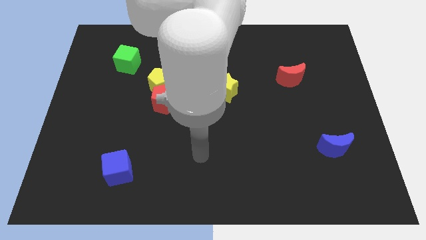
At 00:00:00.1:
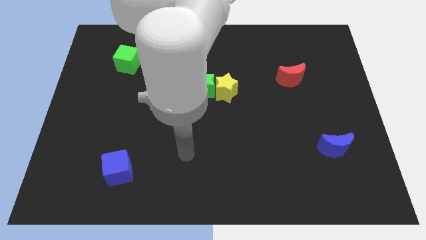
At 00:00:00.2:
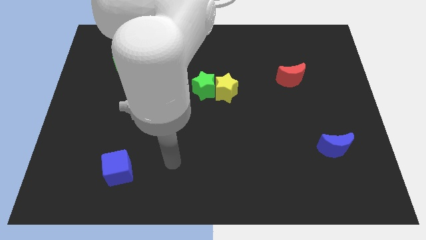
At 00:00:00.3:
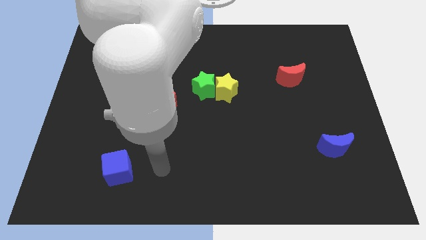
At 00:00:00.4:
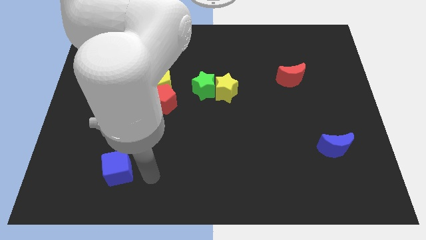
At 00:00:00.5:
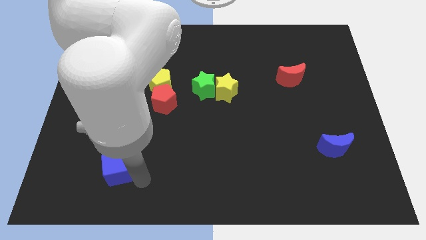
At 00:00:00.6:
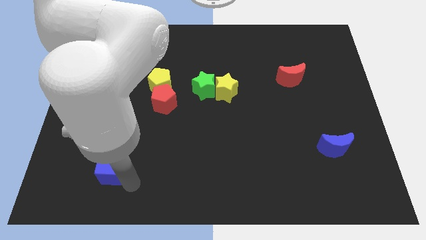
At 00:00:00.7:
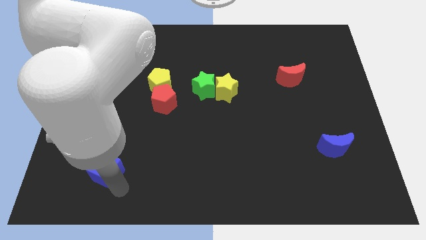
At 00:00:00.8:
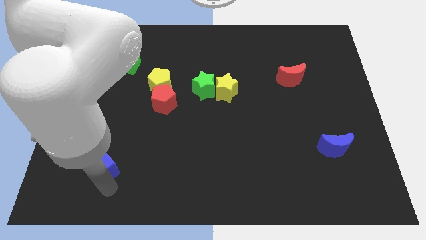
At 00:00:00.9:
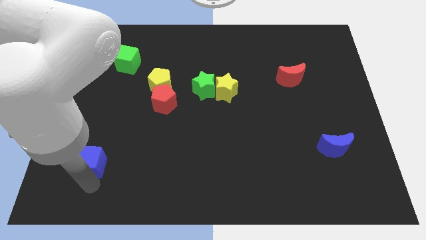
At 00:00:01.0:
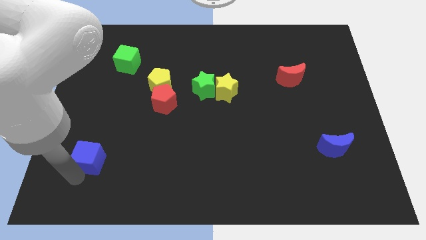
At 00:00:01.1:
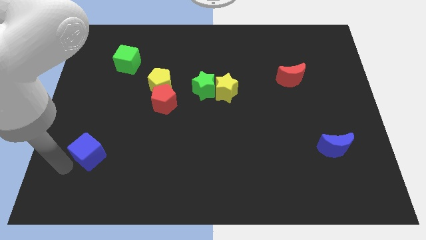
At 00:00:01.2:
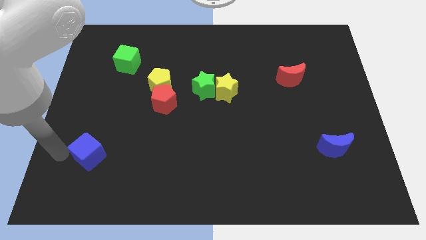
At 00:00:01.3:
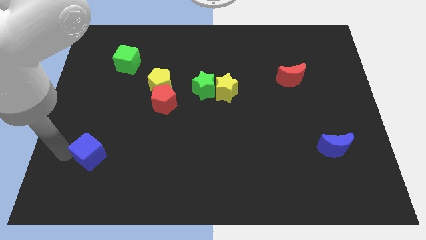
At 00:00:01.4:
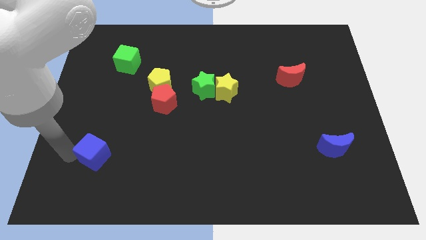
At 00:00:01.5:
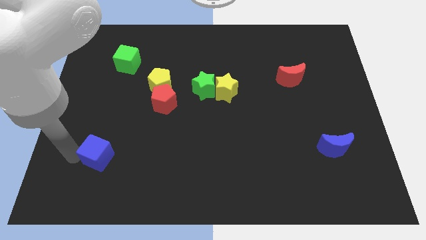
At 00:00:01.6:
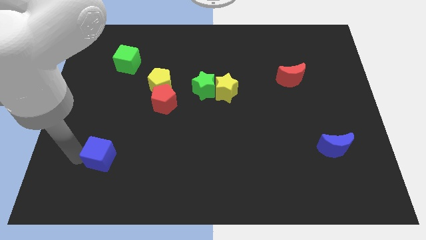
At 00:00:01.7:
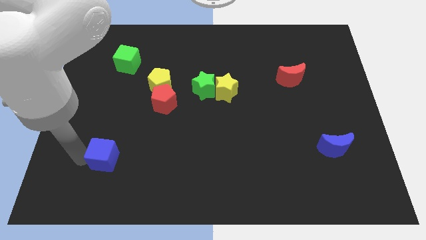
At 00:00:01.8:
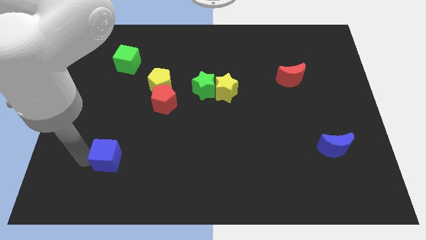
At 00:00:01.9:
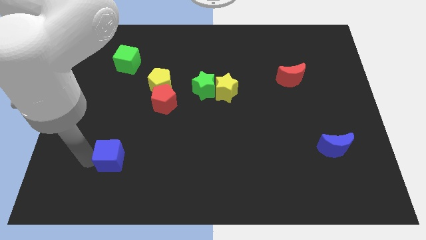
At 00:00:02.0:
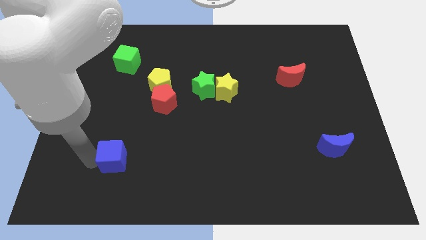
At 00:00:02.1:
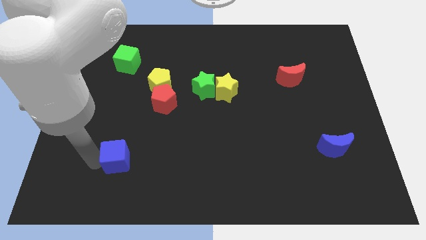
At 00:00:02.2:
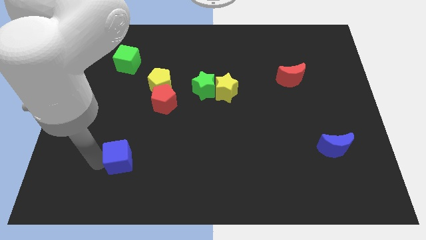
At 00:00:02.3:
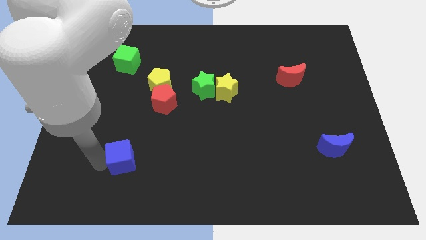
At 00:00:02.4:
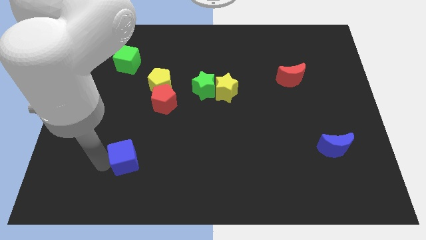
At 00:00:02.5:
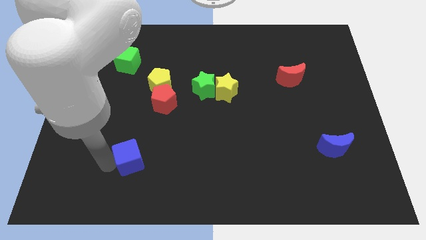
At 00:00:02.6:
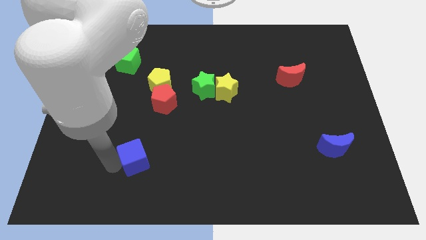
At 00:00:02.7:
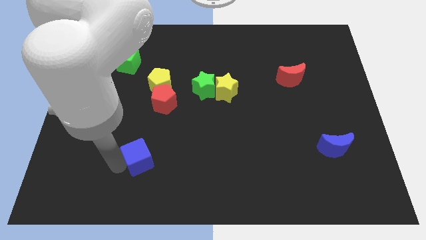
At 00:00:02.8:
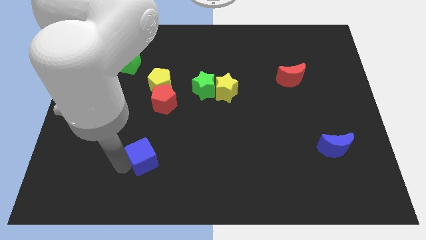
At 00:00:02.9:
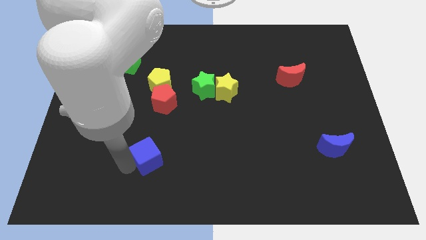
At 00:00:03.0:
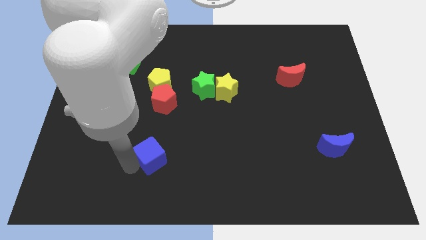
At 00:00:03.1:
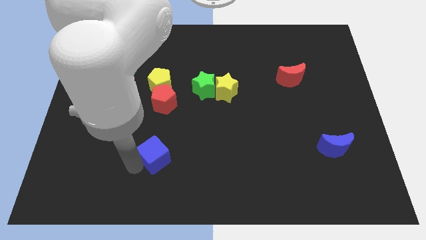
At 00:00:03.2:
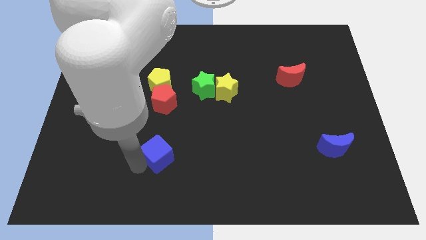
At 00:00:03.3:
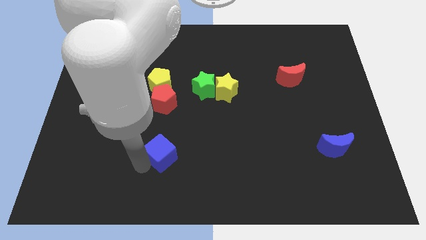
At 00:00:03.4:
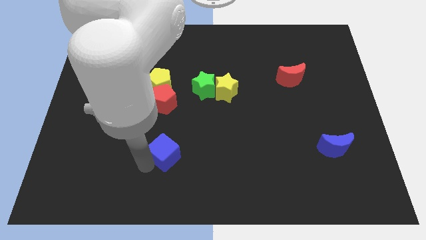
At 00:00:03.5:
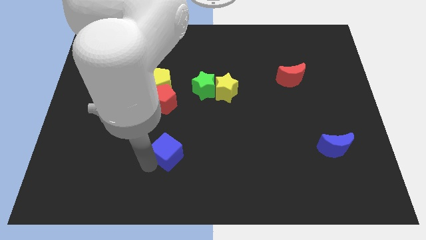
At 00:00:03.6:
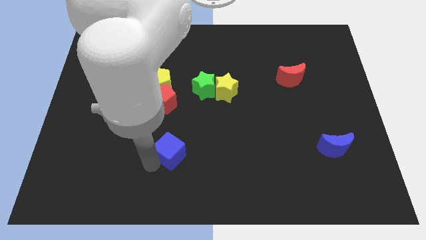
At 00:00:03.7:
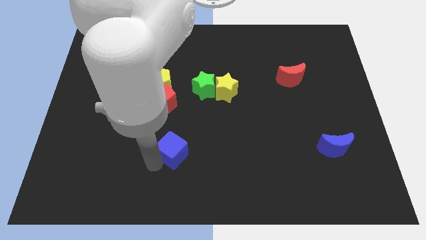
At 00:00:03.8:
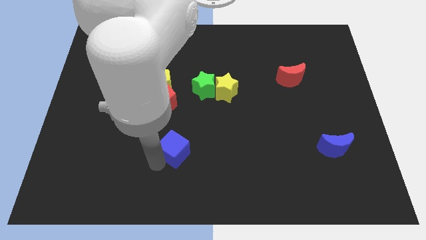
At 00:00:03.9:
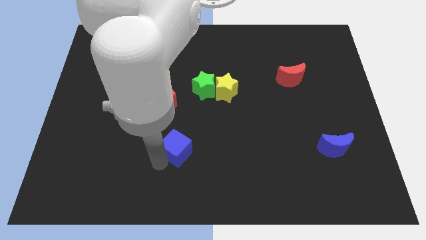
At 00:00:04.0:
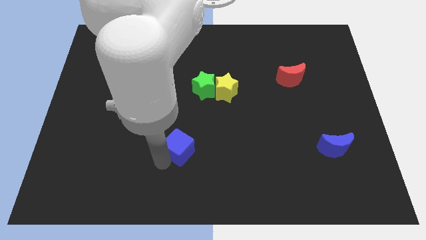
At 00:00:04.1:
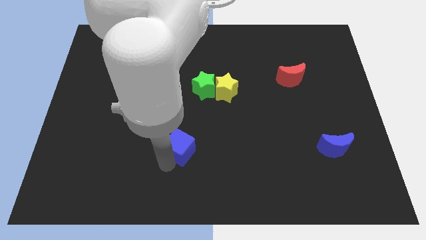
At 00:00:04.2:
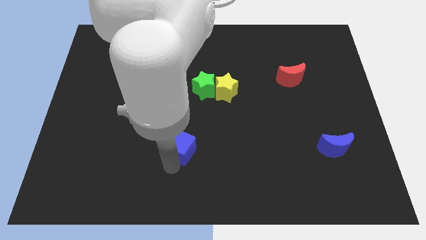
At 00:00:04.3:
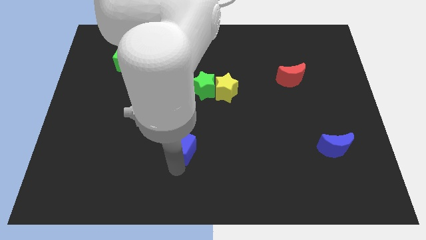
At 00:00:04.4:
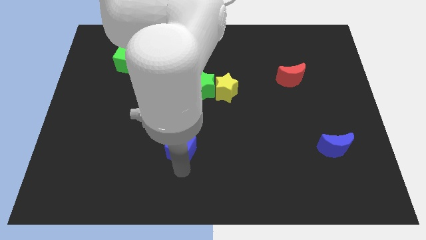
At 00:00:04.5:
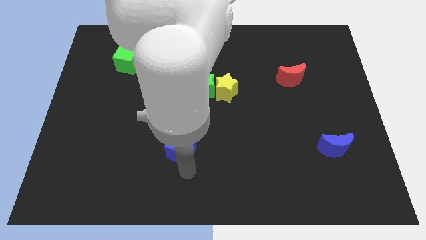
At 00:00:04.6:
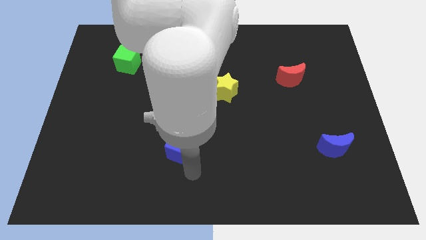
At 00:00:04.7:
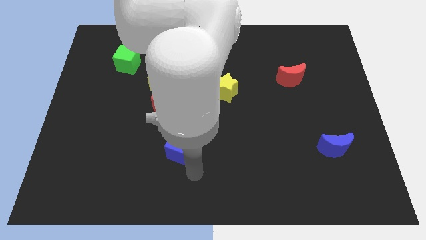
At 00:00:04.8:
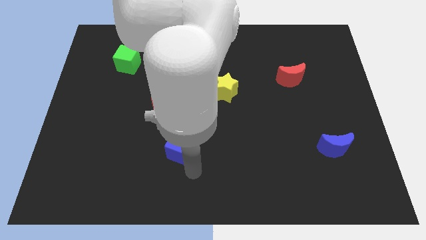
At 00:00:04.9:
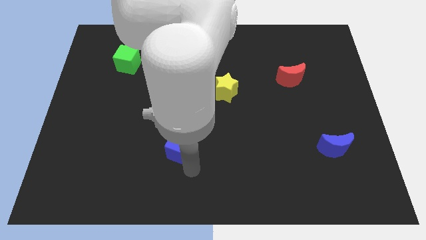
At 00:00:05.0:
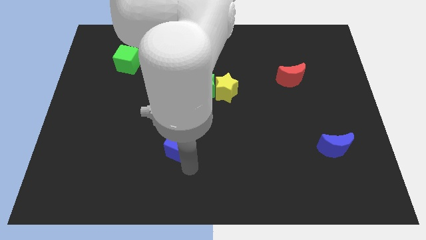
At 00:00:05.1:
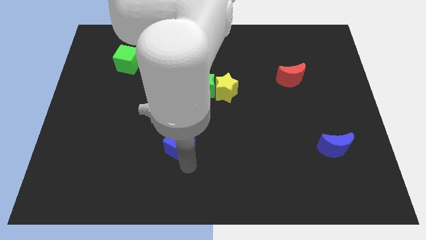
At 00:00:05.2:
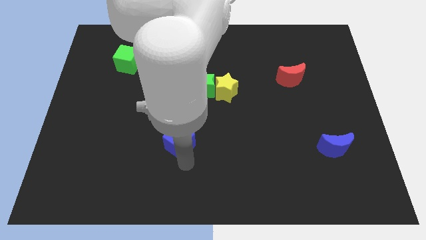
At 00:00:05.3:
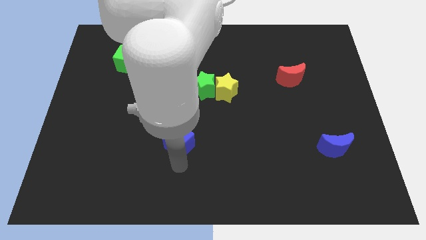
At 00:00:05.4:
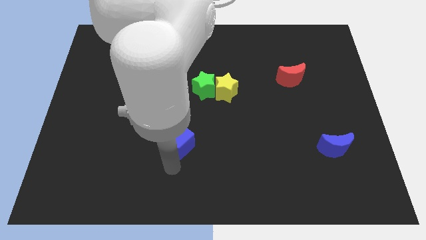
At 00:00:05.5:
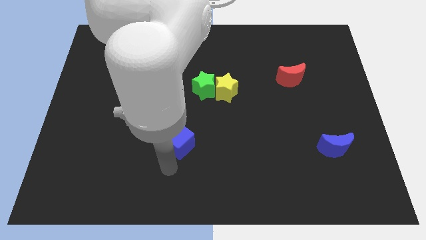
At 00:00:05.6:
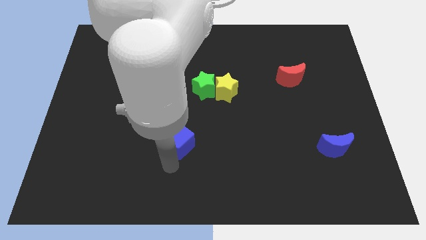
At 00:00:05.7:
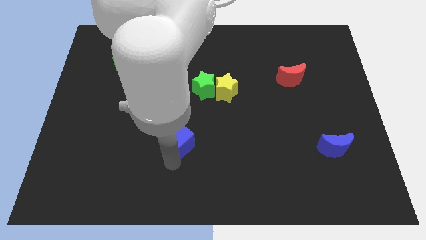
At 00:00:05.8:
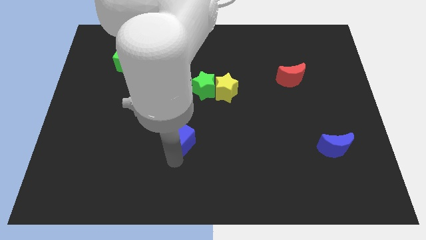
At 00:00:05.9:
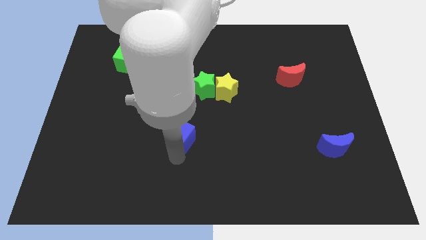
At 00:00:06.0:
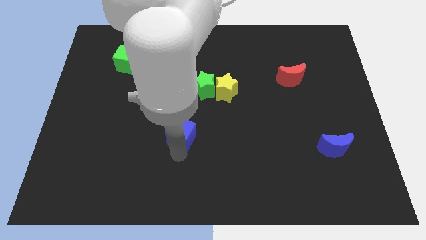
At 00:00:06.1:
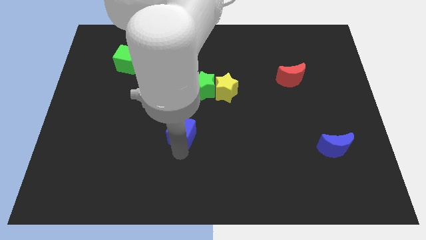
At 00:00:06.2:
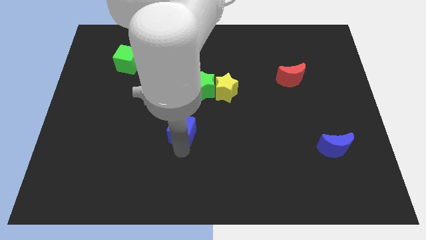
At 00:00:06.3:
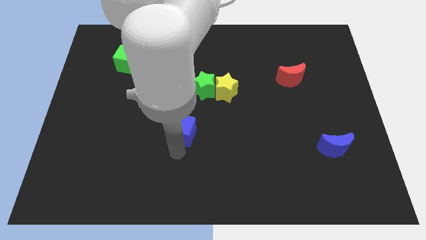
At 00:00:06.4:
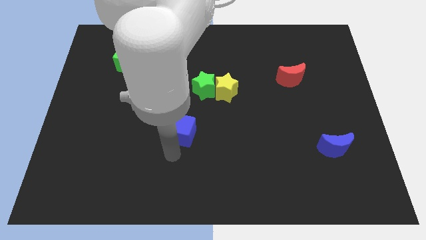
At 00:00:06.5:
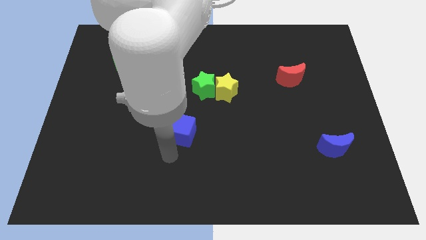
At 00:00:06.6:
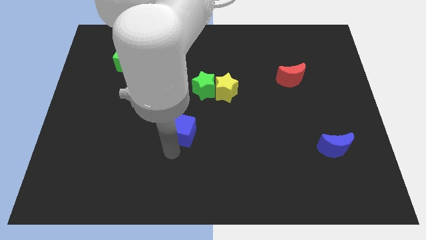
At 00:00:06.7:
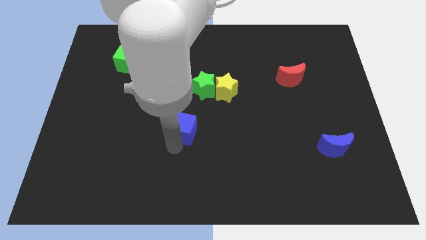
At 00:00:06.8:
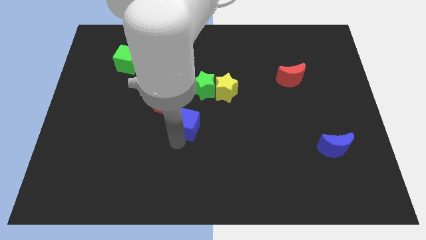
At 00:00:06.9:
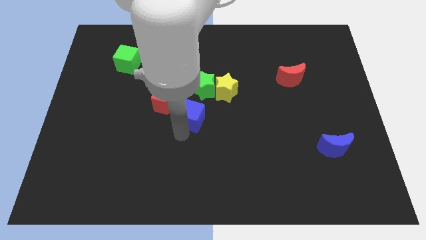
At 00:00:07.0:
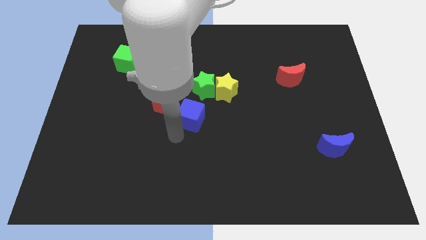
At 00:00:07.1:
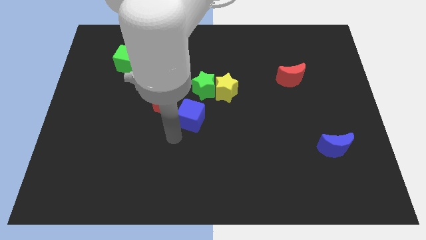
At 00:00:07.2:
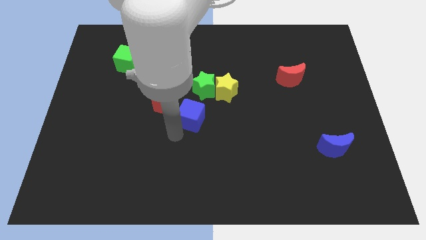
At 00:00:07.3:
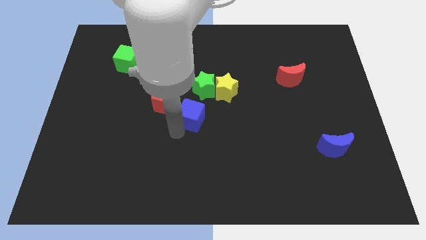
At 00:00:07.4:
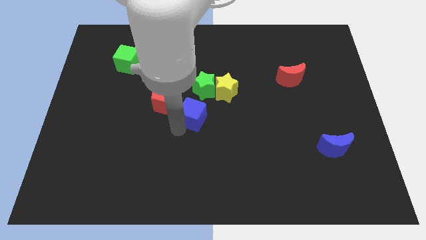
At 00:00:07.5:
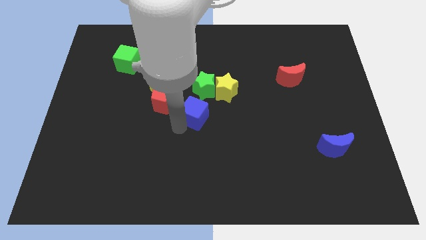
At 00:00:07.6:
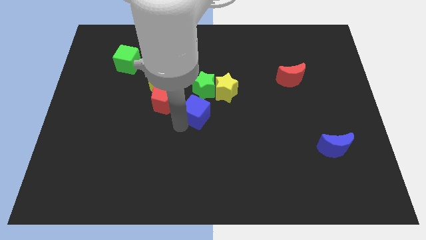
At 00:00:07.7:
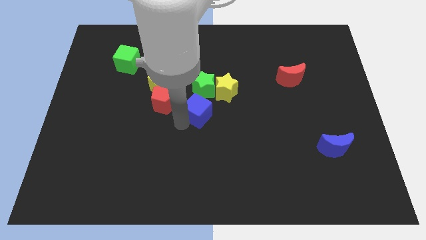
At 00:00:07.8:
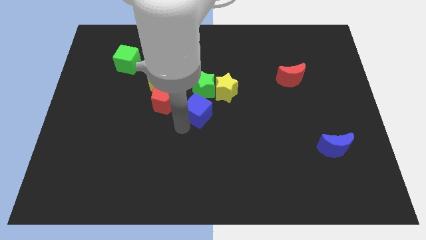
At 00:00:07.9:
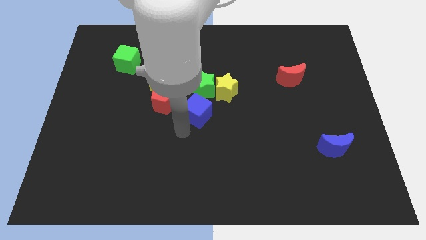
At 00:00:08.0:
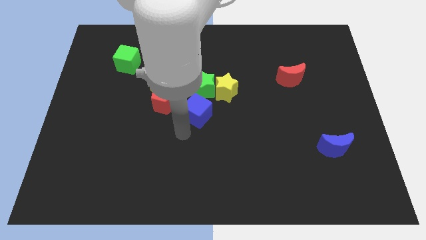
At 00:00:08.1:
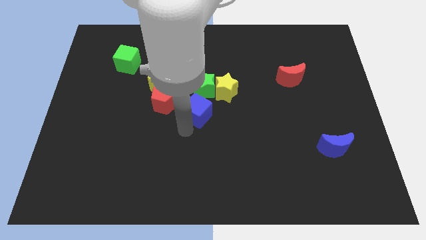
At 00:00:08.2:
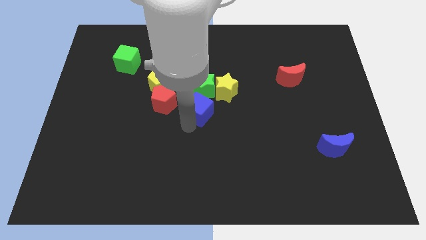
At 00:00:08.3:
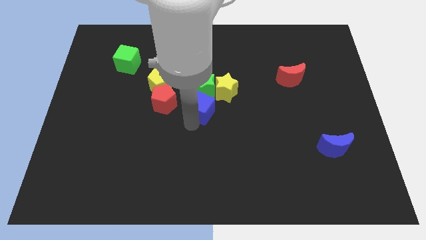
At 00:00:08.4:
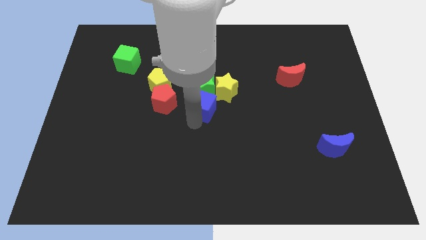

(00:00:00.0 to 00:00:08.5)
put the blue cube towards the green star
